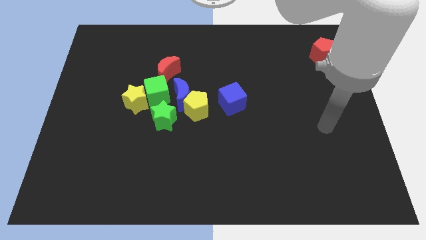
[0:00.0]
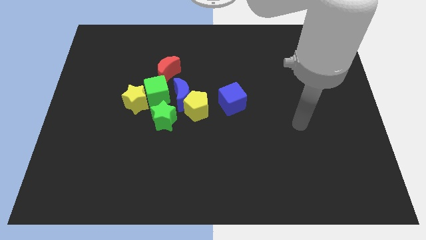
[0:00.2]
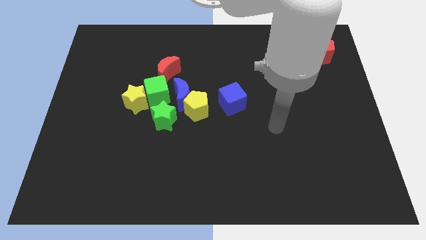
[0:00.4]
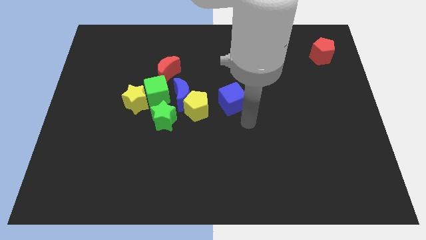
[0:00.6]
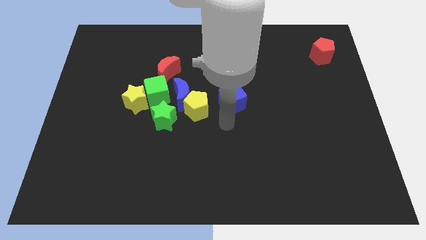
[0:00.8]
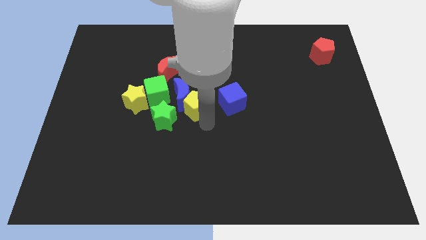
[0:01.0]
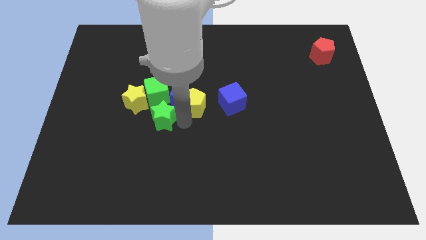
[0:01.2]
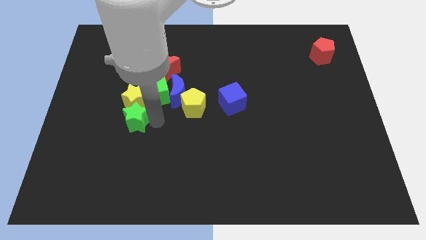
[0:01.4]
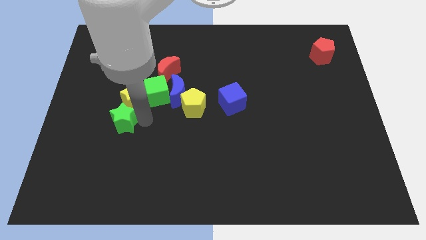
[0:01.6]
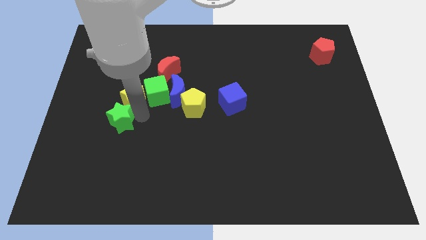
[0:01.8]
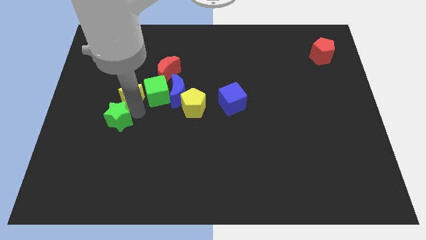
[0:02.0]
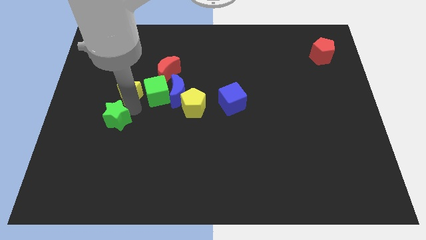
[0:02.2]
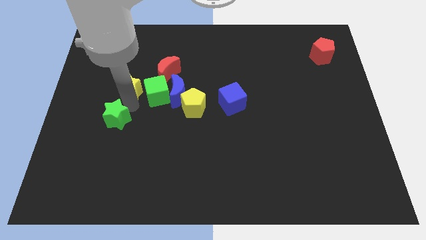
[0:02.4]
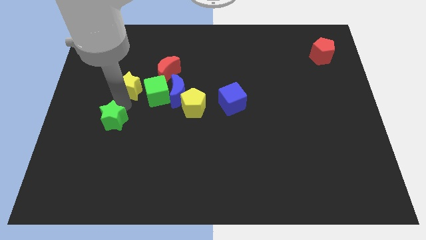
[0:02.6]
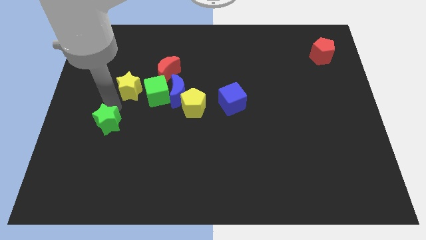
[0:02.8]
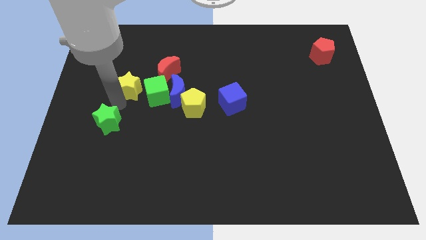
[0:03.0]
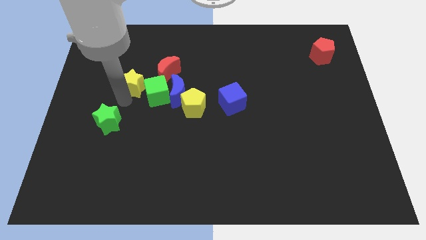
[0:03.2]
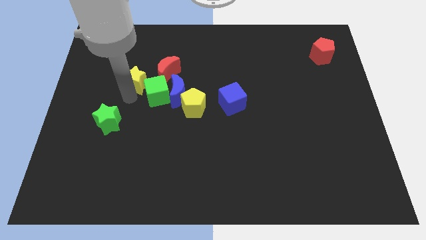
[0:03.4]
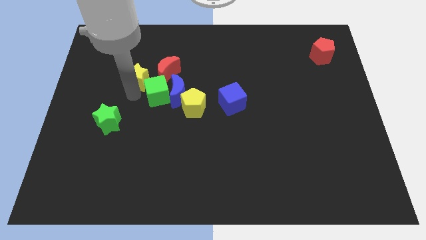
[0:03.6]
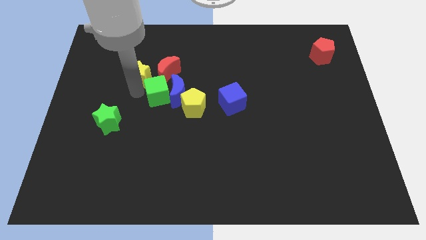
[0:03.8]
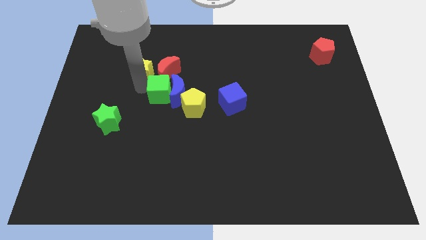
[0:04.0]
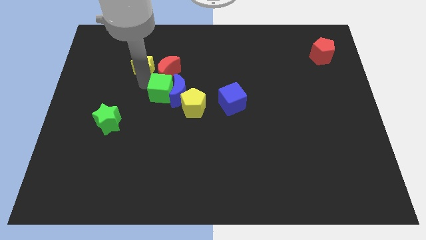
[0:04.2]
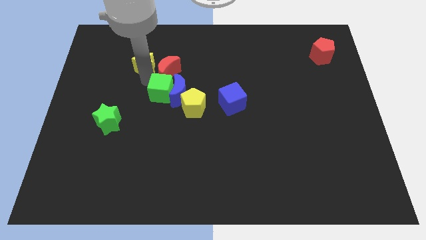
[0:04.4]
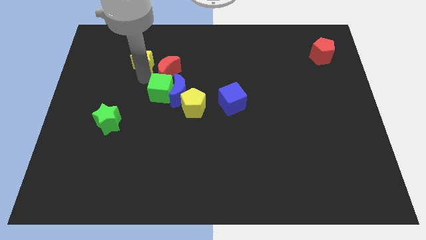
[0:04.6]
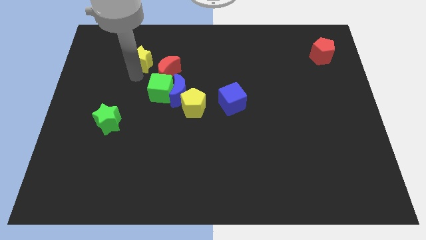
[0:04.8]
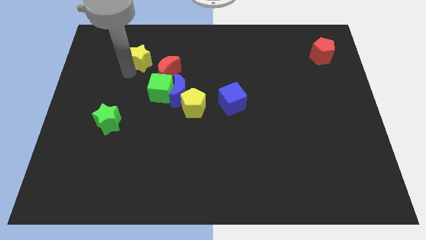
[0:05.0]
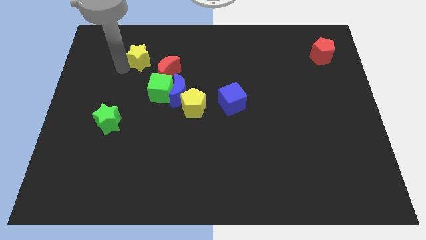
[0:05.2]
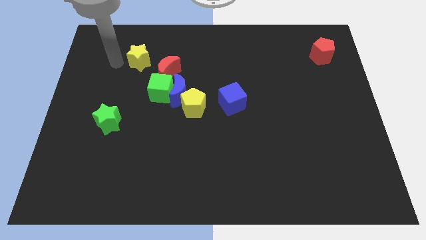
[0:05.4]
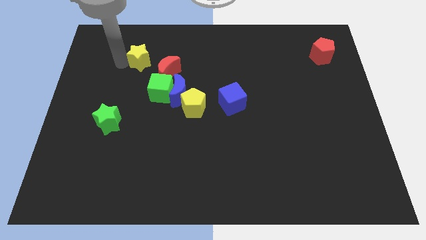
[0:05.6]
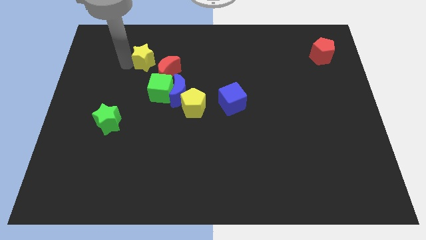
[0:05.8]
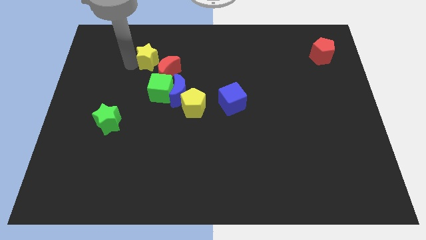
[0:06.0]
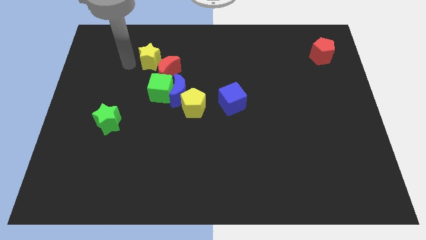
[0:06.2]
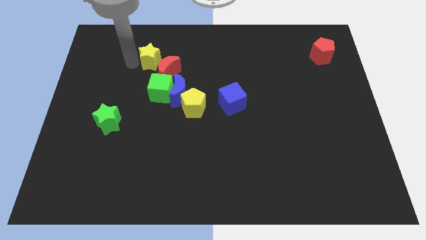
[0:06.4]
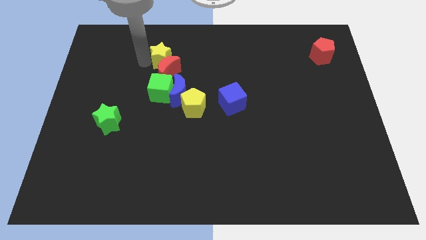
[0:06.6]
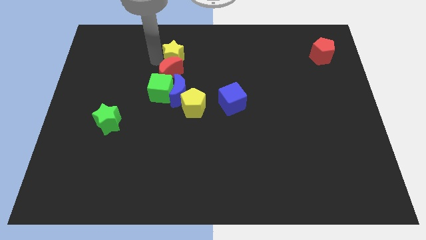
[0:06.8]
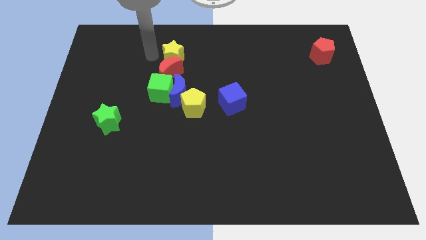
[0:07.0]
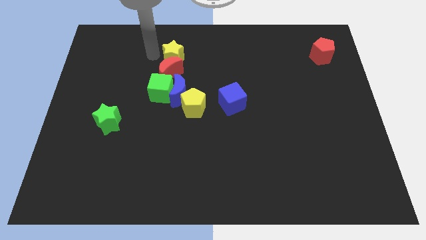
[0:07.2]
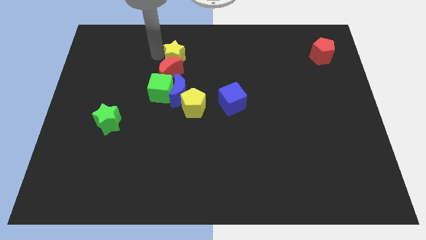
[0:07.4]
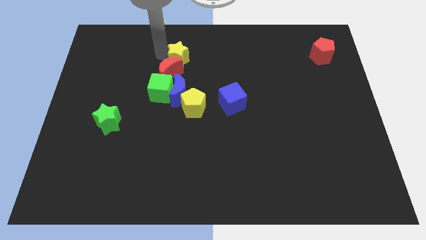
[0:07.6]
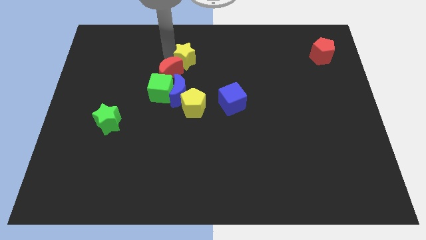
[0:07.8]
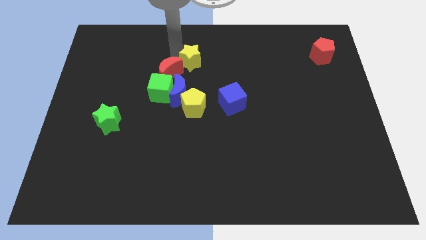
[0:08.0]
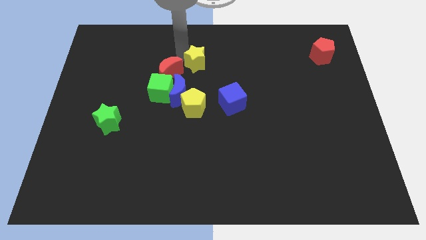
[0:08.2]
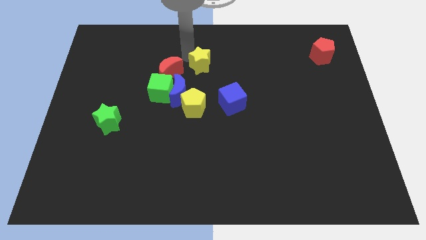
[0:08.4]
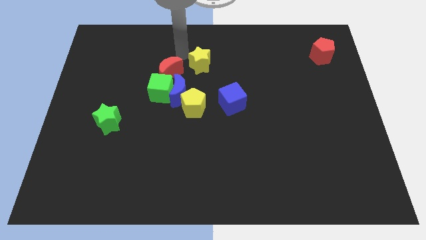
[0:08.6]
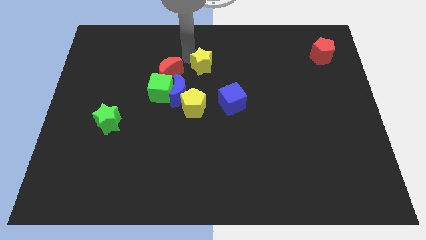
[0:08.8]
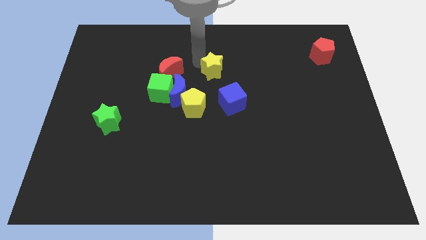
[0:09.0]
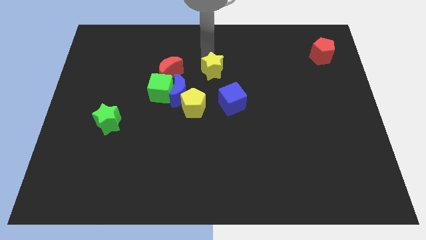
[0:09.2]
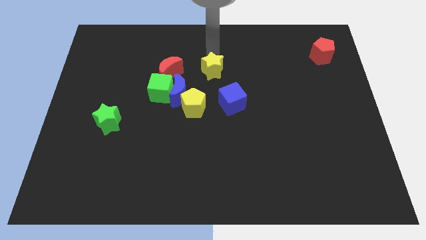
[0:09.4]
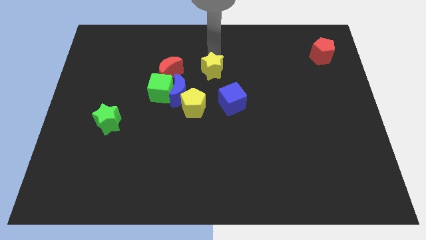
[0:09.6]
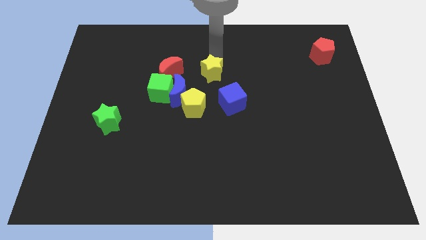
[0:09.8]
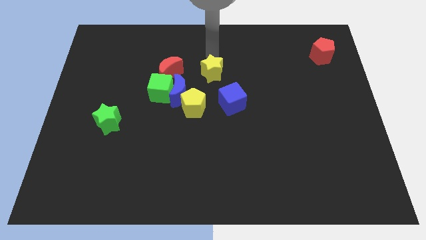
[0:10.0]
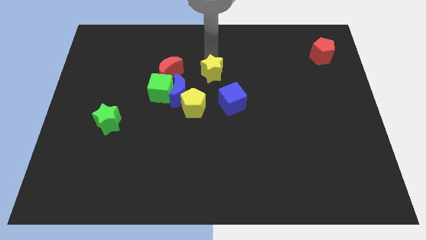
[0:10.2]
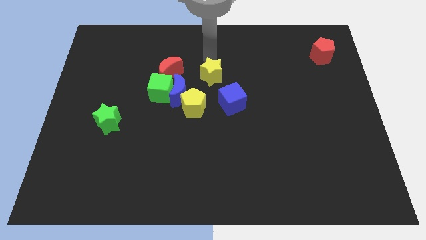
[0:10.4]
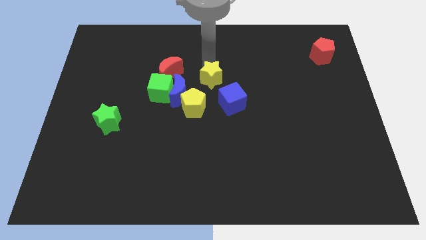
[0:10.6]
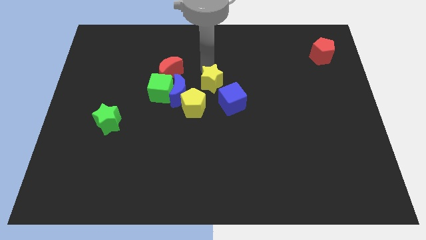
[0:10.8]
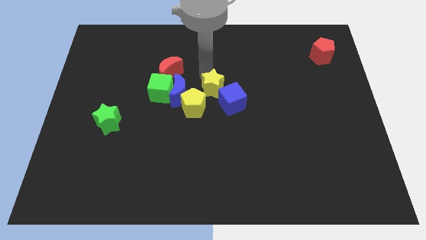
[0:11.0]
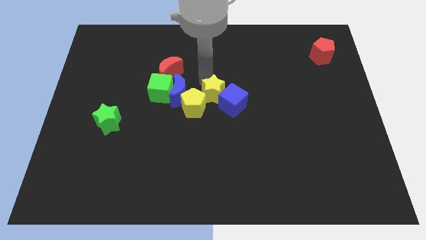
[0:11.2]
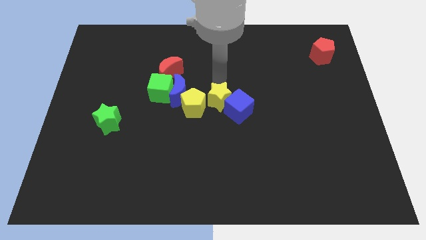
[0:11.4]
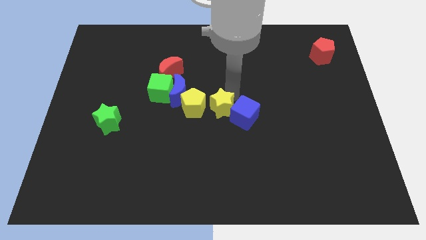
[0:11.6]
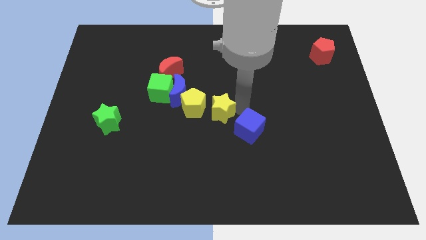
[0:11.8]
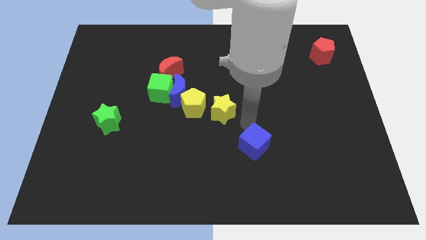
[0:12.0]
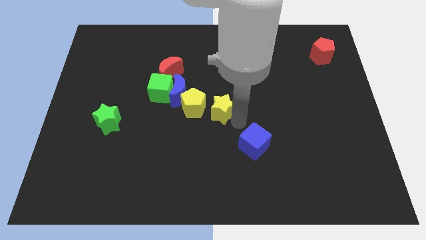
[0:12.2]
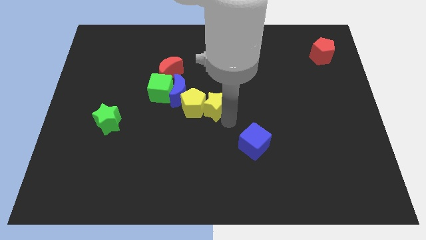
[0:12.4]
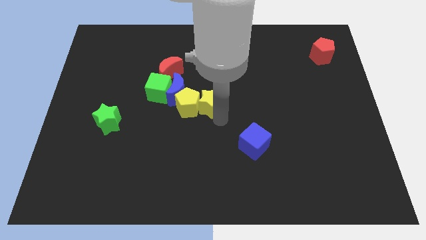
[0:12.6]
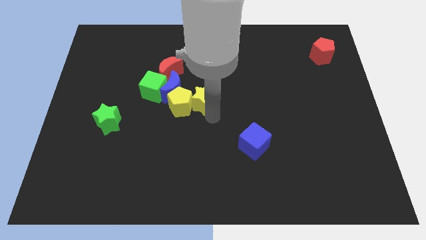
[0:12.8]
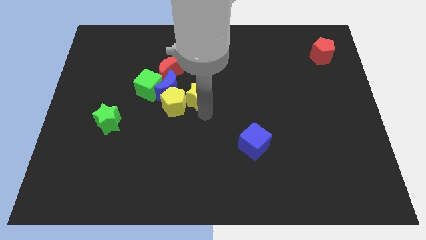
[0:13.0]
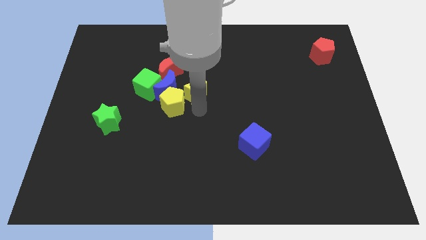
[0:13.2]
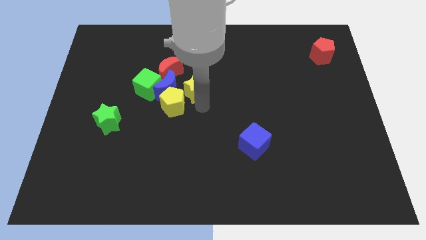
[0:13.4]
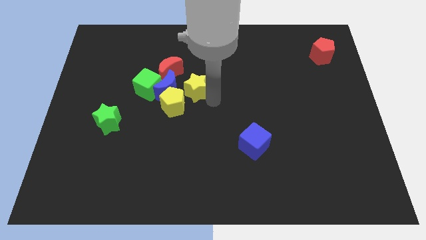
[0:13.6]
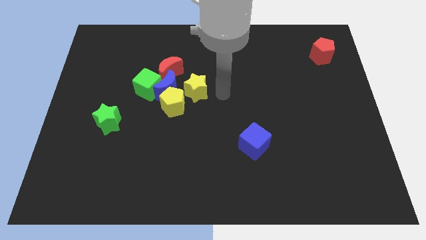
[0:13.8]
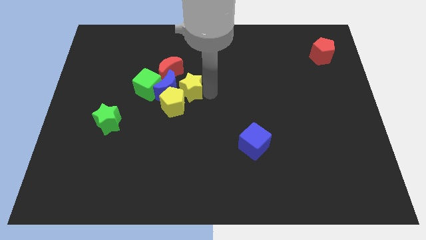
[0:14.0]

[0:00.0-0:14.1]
put the yellow star close to the blue moon

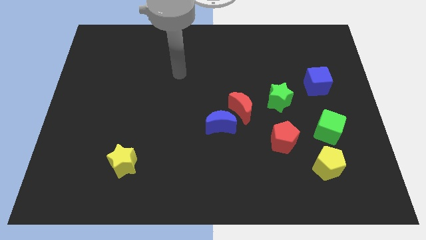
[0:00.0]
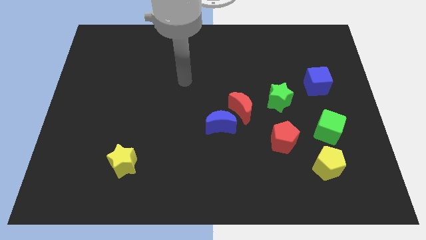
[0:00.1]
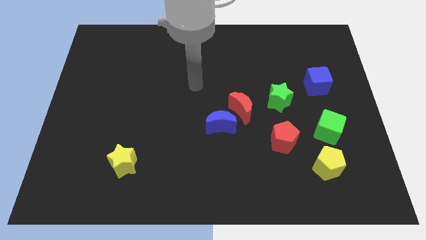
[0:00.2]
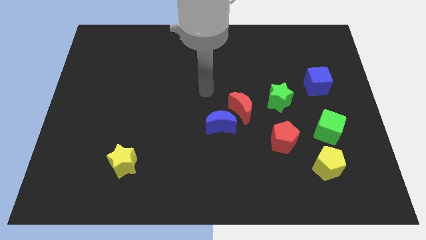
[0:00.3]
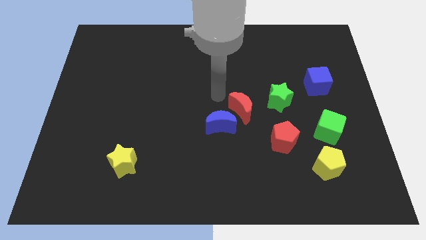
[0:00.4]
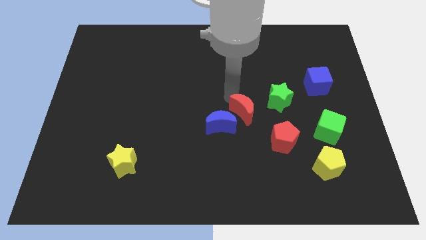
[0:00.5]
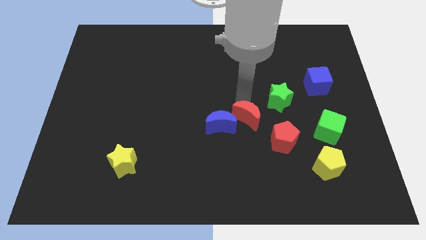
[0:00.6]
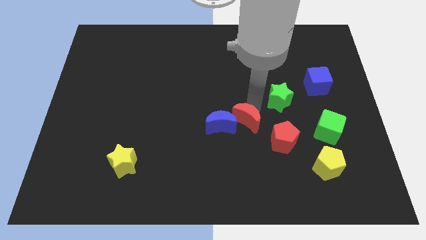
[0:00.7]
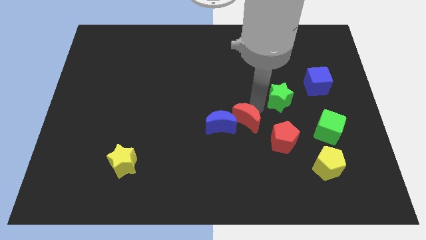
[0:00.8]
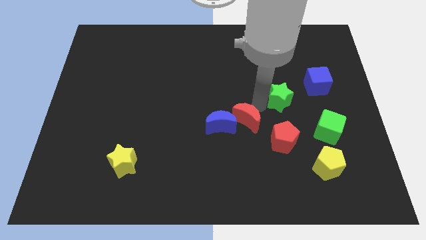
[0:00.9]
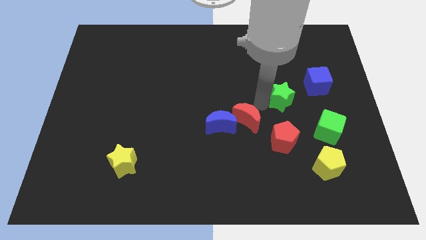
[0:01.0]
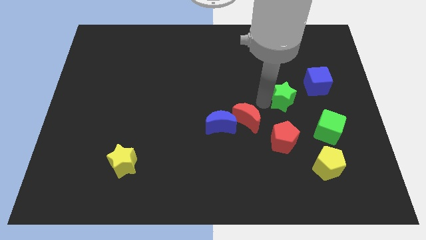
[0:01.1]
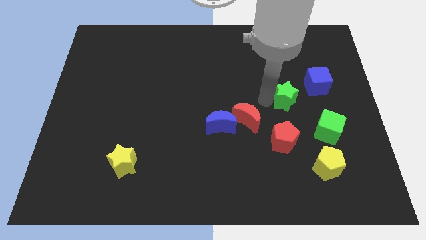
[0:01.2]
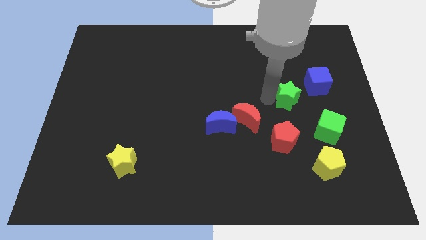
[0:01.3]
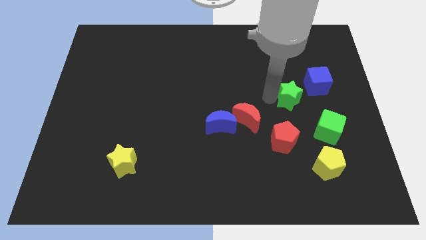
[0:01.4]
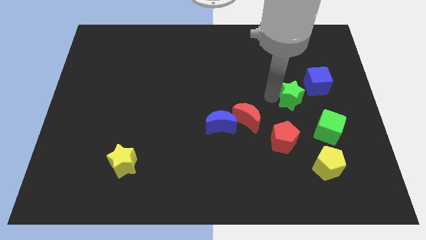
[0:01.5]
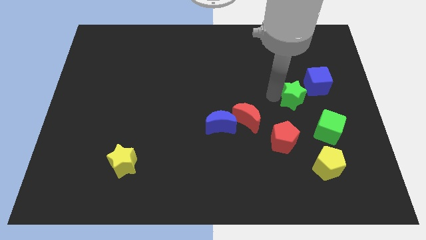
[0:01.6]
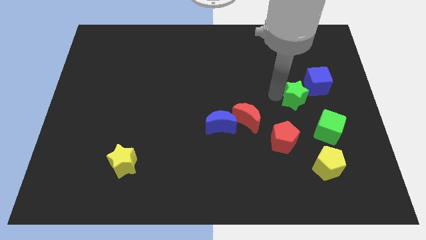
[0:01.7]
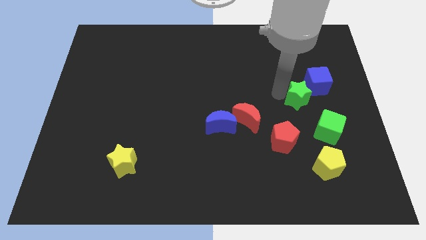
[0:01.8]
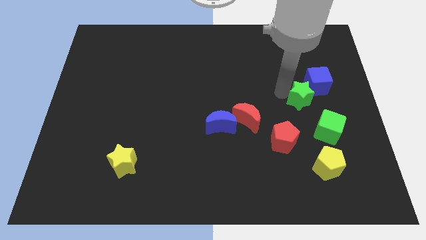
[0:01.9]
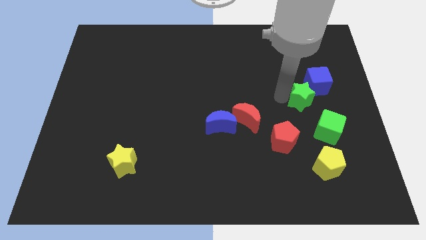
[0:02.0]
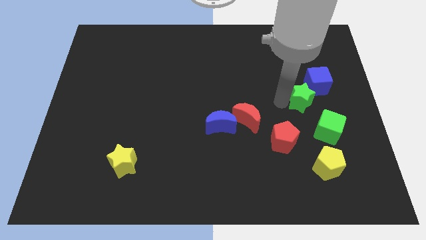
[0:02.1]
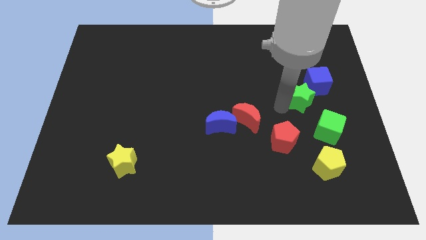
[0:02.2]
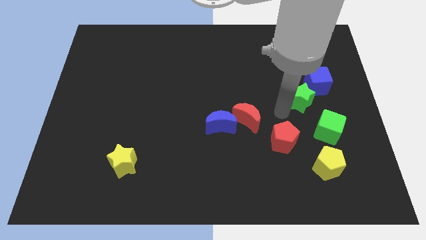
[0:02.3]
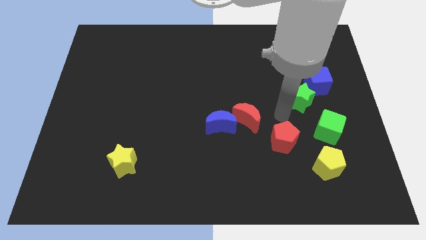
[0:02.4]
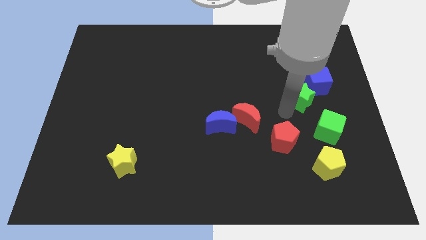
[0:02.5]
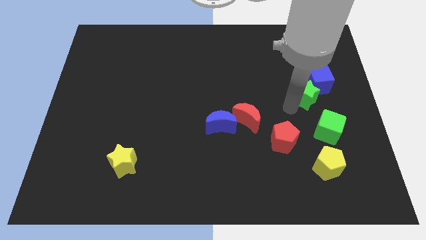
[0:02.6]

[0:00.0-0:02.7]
push the green star towards the blue cube
